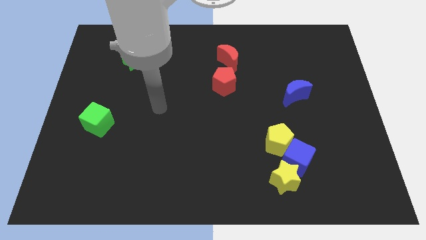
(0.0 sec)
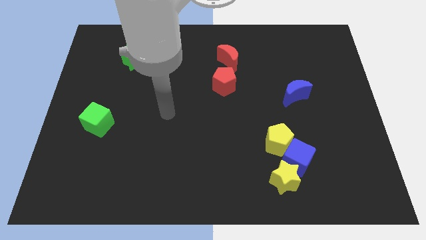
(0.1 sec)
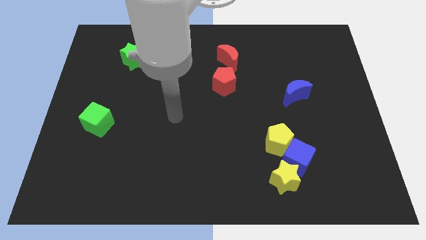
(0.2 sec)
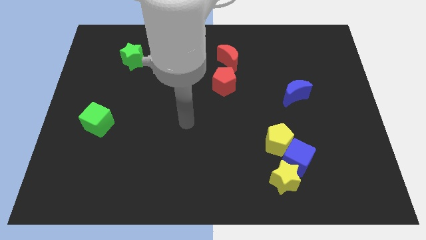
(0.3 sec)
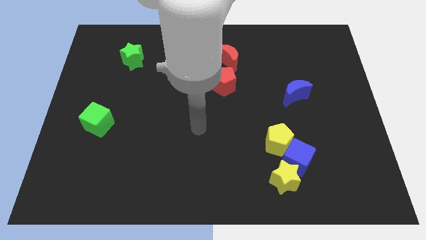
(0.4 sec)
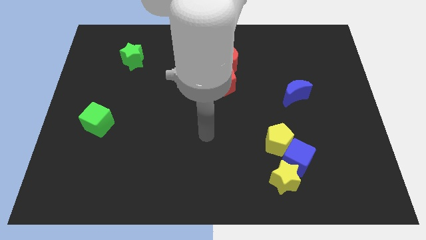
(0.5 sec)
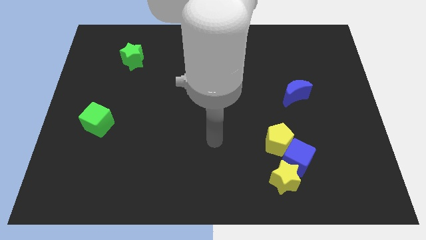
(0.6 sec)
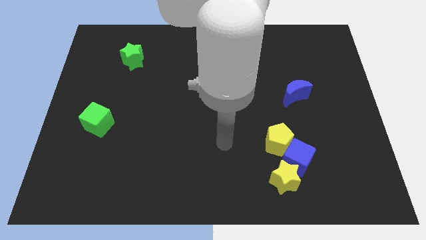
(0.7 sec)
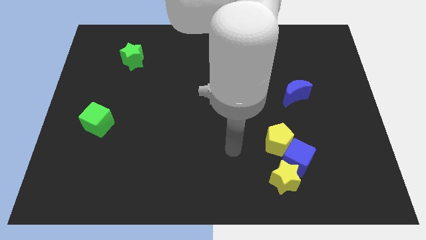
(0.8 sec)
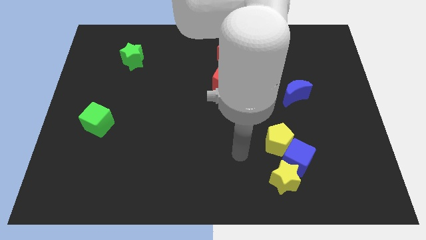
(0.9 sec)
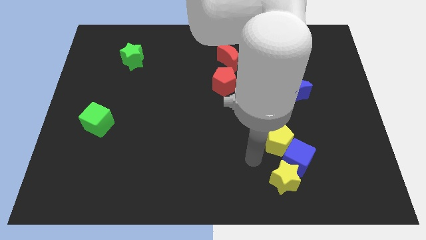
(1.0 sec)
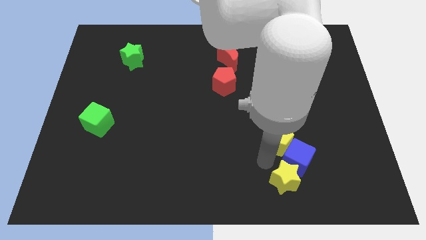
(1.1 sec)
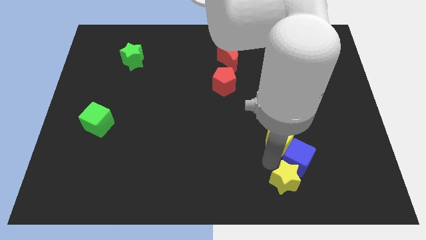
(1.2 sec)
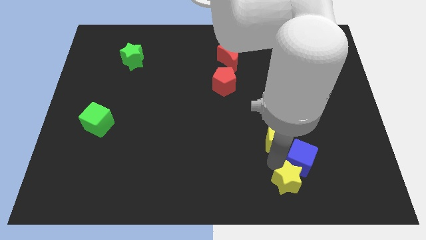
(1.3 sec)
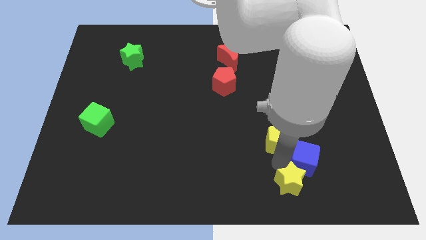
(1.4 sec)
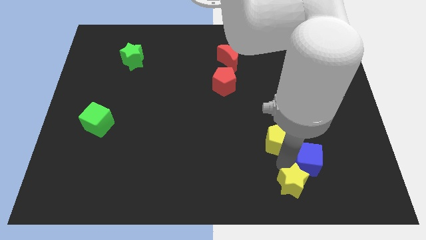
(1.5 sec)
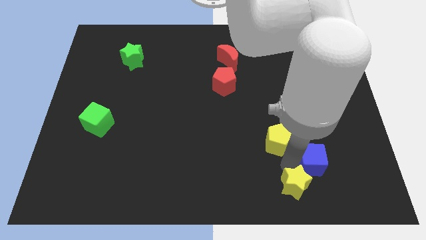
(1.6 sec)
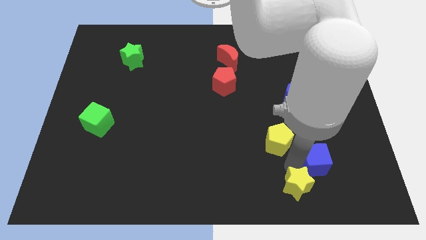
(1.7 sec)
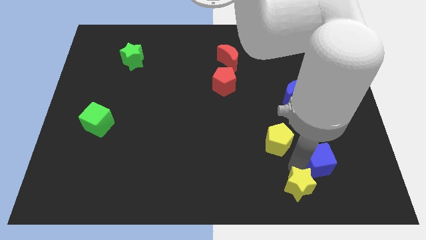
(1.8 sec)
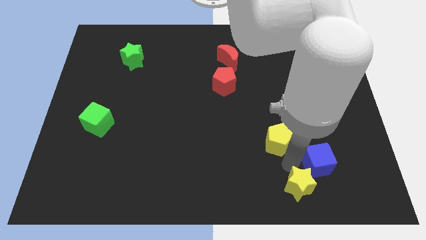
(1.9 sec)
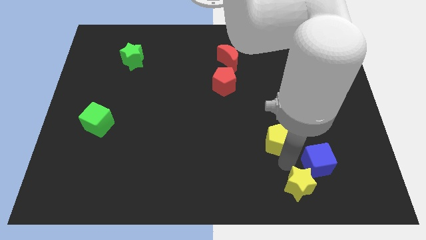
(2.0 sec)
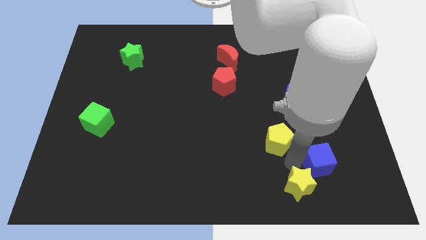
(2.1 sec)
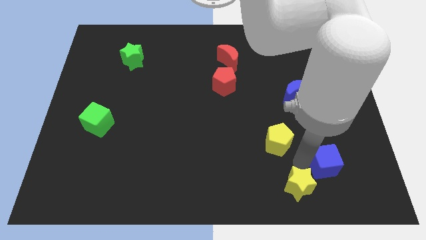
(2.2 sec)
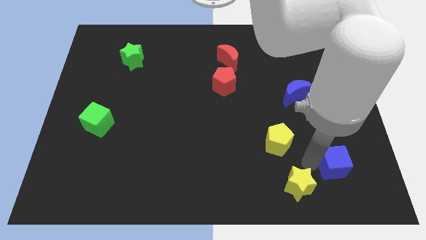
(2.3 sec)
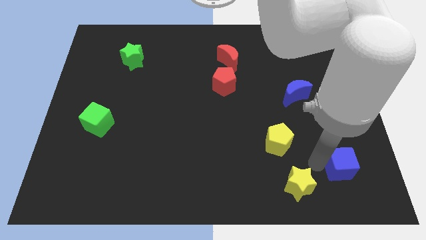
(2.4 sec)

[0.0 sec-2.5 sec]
separate the blue cube from the yellow pentagon and yellow star

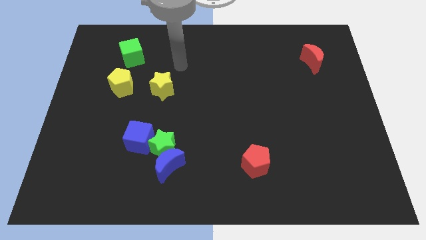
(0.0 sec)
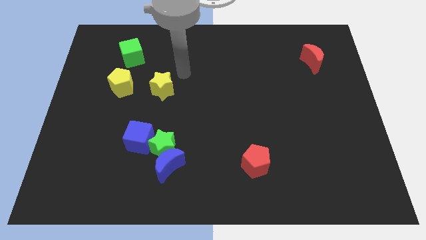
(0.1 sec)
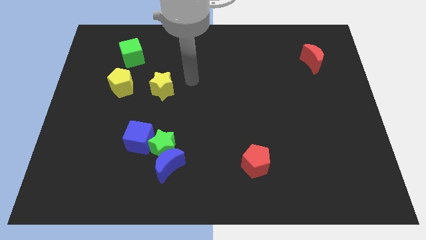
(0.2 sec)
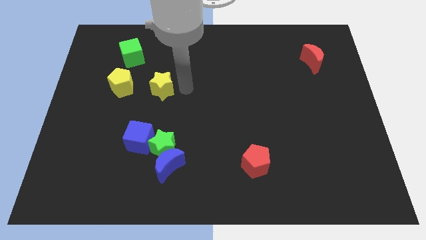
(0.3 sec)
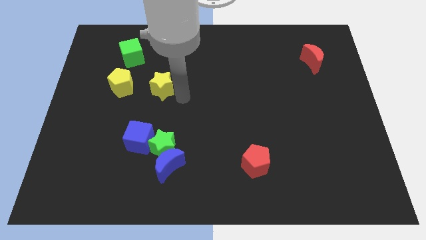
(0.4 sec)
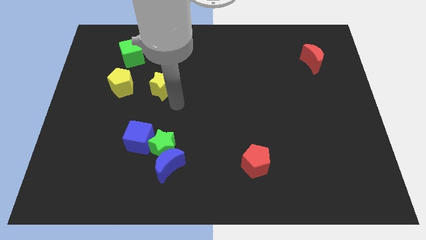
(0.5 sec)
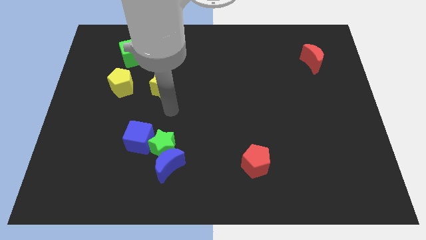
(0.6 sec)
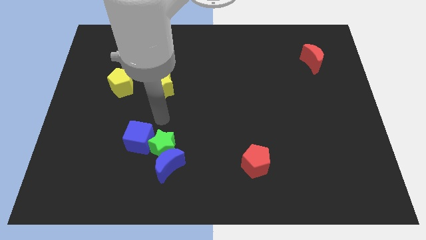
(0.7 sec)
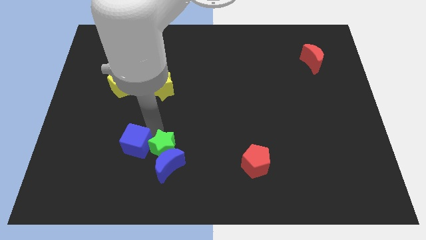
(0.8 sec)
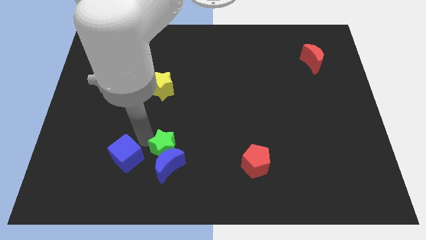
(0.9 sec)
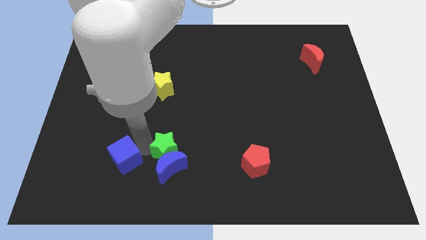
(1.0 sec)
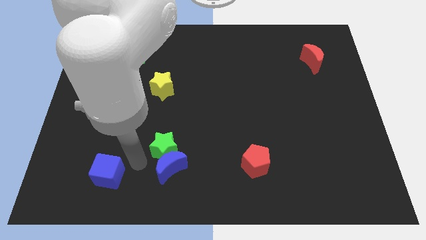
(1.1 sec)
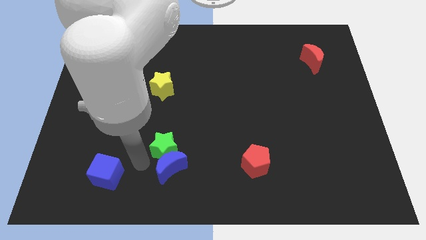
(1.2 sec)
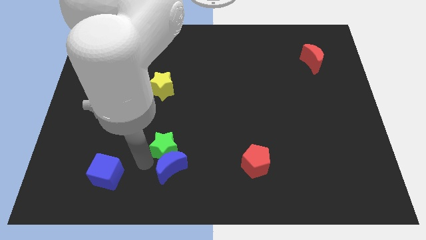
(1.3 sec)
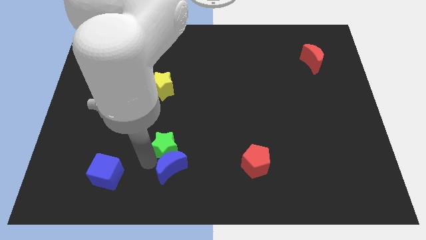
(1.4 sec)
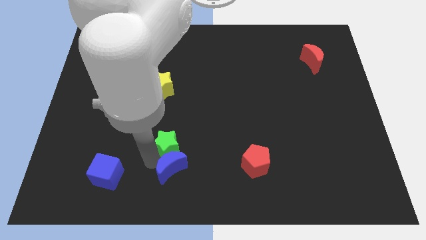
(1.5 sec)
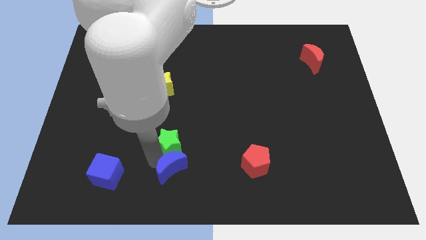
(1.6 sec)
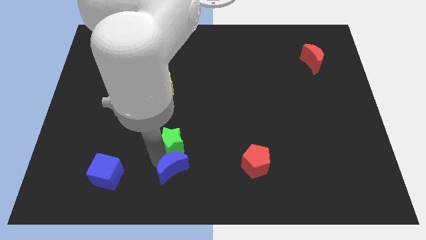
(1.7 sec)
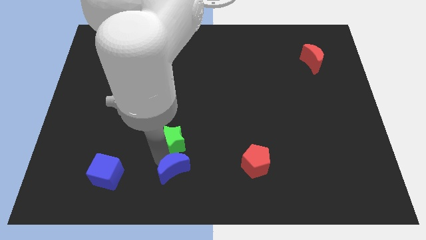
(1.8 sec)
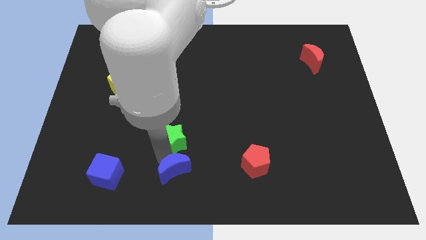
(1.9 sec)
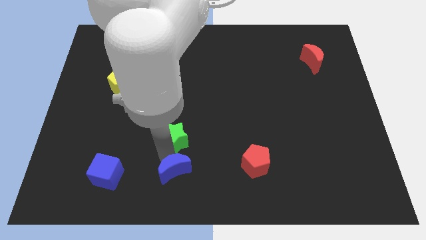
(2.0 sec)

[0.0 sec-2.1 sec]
pull the green star apart from the blue moon and blue cube

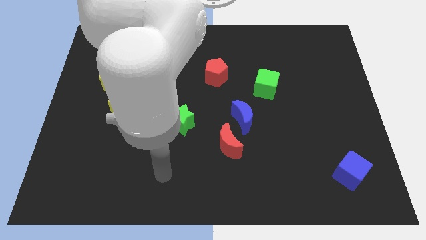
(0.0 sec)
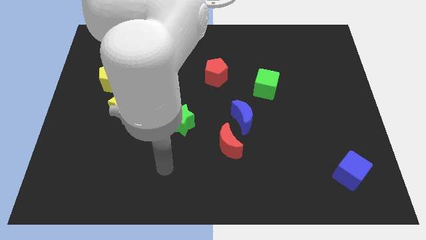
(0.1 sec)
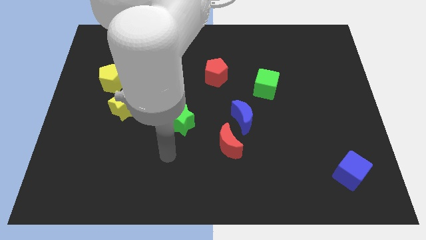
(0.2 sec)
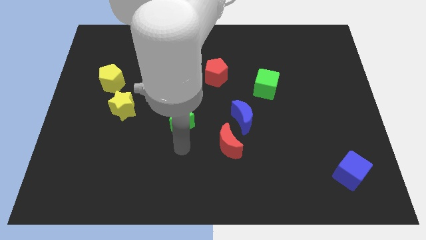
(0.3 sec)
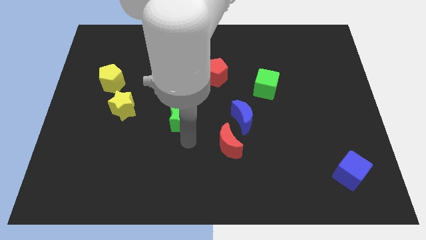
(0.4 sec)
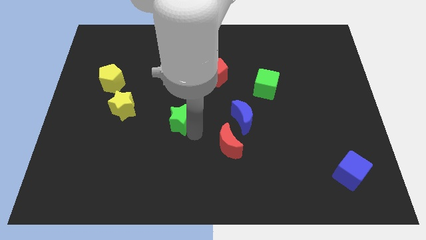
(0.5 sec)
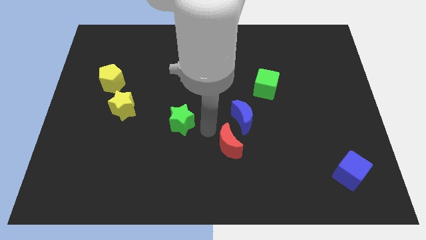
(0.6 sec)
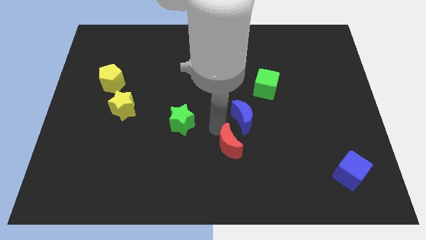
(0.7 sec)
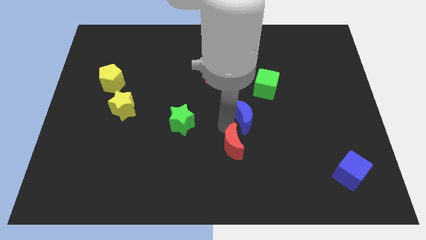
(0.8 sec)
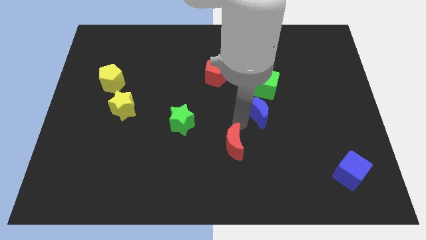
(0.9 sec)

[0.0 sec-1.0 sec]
pull the red moon apart from the blue moon

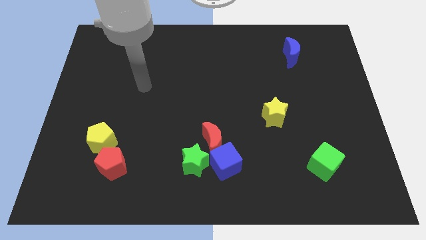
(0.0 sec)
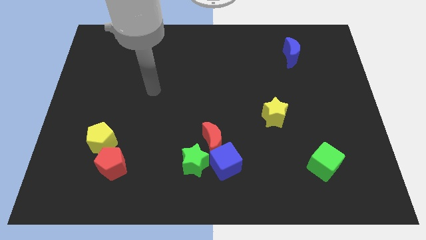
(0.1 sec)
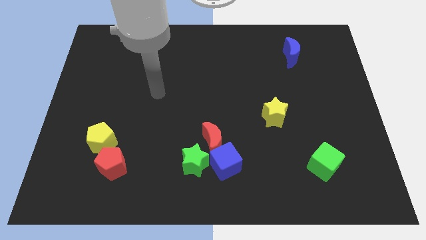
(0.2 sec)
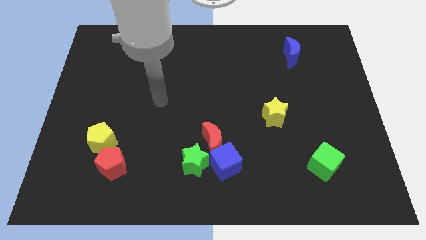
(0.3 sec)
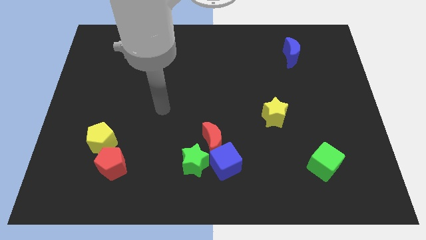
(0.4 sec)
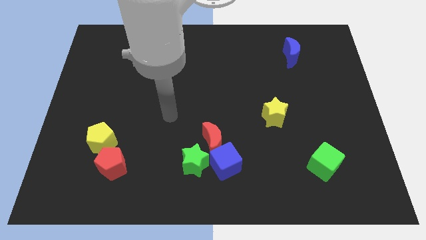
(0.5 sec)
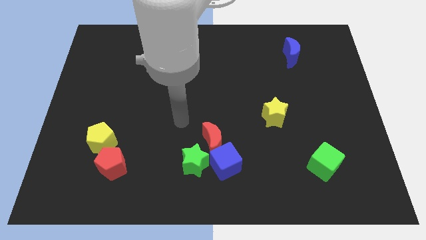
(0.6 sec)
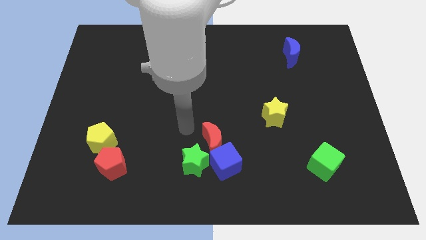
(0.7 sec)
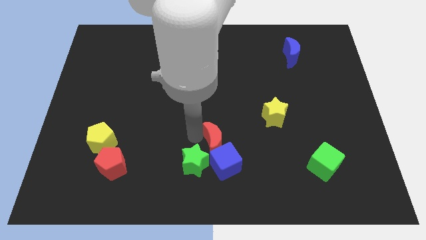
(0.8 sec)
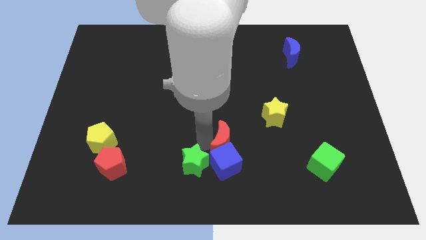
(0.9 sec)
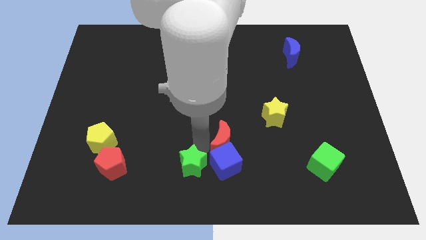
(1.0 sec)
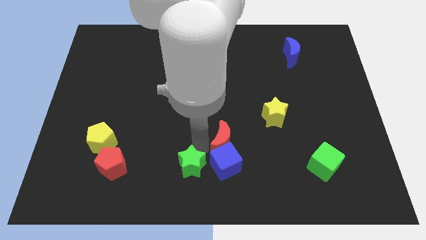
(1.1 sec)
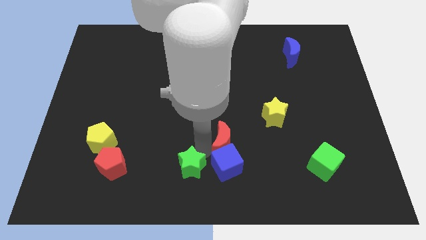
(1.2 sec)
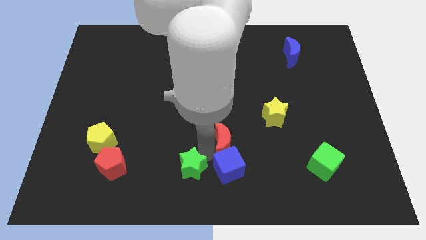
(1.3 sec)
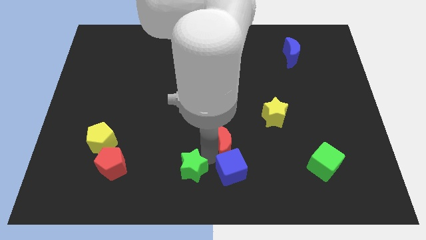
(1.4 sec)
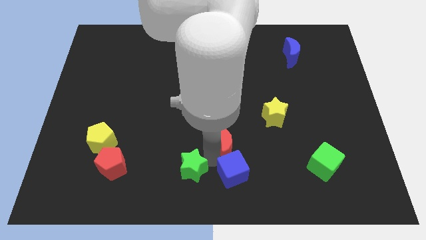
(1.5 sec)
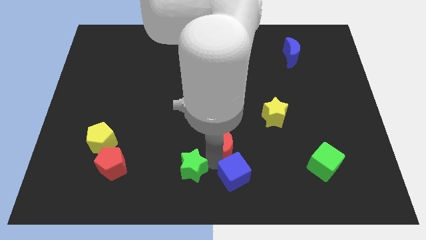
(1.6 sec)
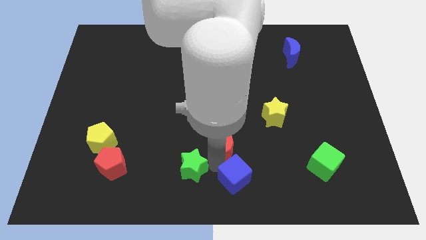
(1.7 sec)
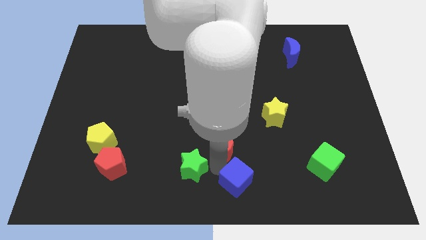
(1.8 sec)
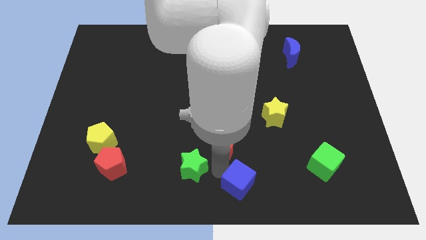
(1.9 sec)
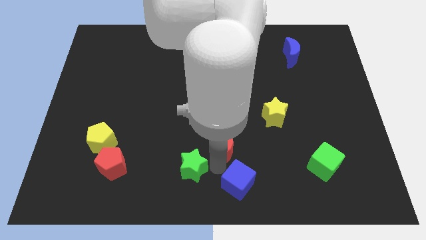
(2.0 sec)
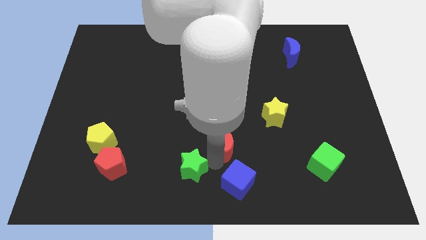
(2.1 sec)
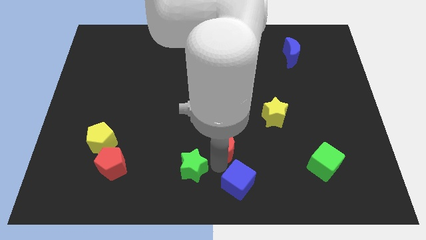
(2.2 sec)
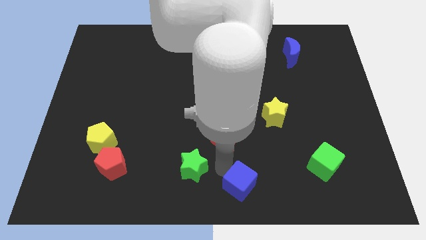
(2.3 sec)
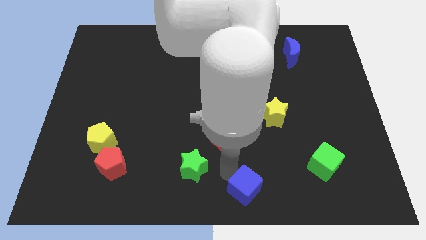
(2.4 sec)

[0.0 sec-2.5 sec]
move the blue cube away from the red moon and green star

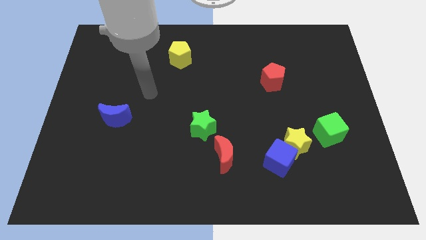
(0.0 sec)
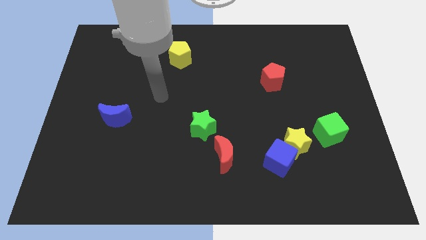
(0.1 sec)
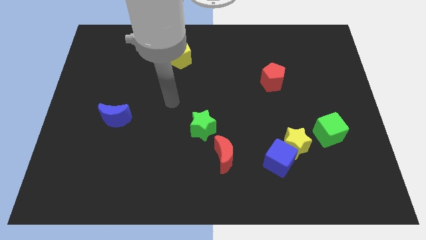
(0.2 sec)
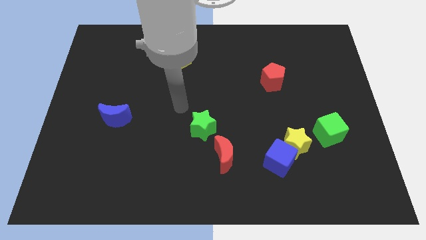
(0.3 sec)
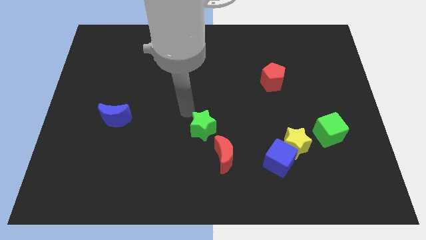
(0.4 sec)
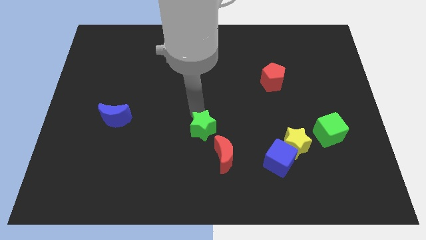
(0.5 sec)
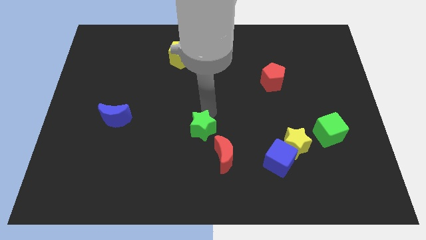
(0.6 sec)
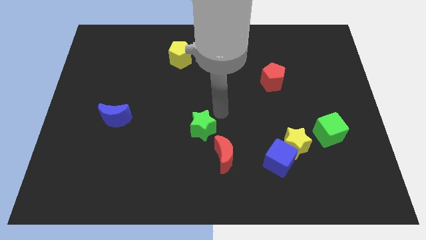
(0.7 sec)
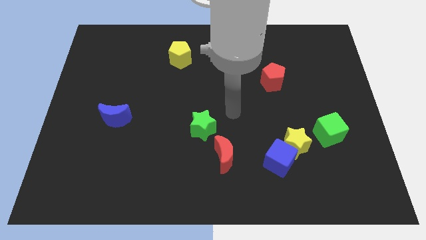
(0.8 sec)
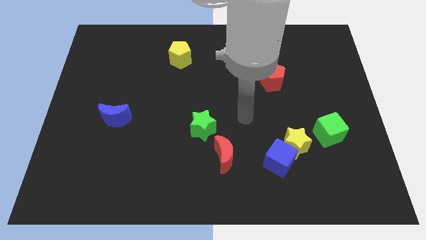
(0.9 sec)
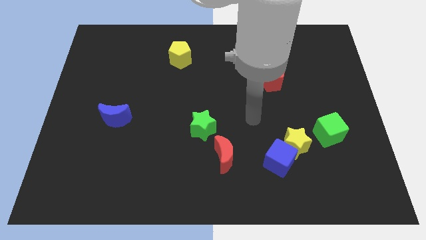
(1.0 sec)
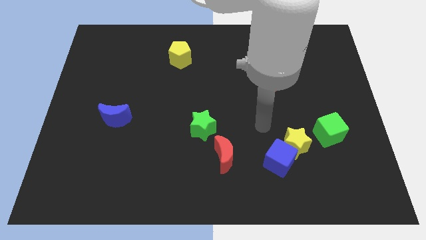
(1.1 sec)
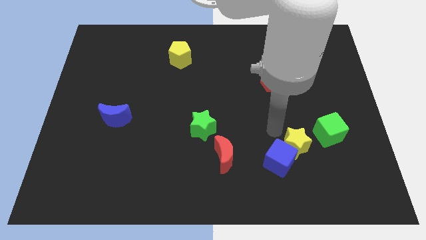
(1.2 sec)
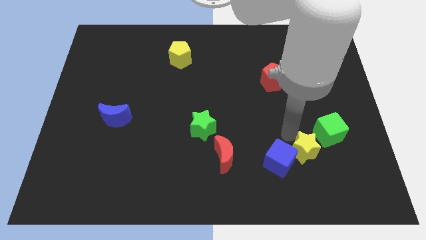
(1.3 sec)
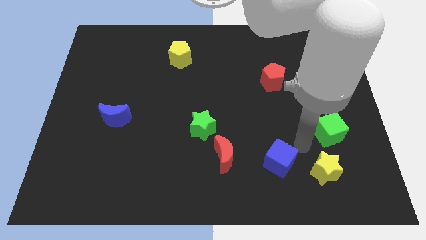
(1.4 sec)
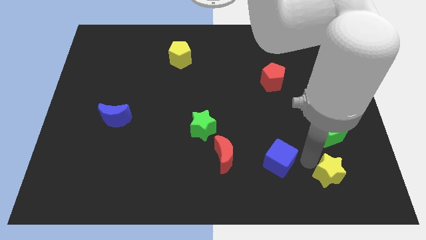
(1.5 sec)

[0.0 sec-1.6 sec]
move the blue cube away from the yellow star
